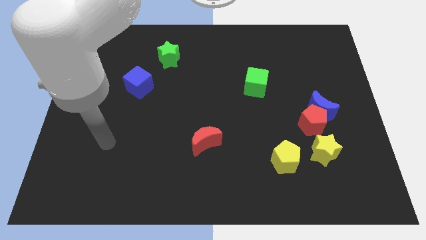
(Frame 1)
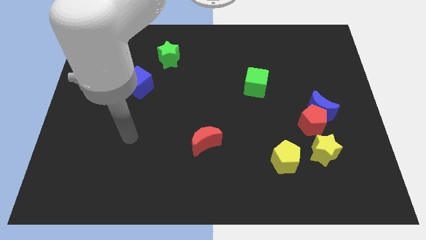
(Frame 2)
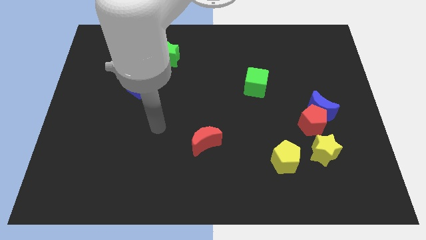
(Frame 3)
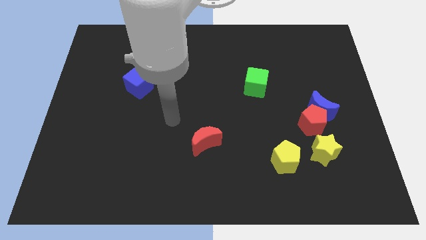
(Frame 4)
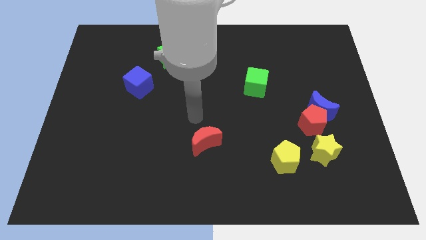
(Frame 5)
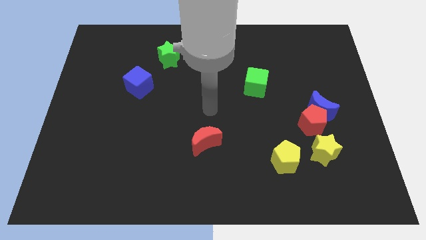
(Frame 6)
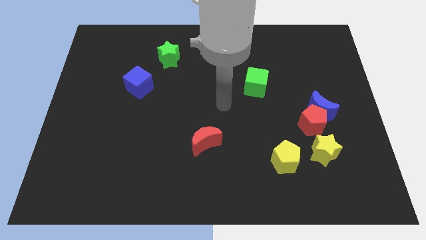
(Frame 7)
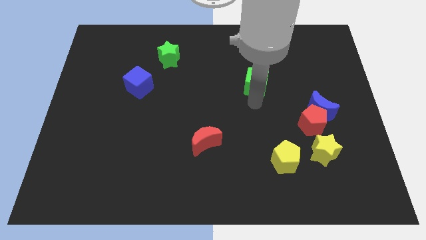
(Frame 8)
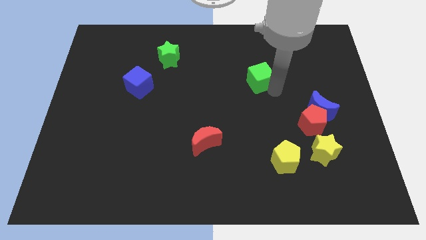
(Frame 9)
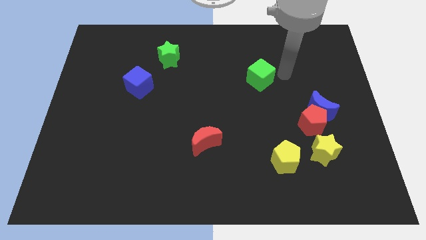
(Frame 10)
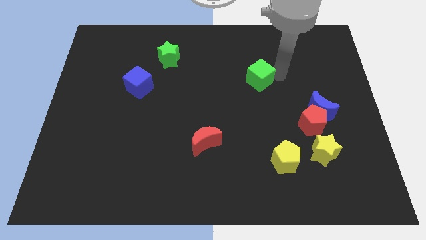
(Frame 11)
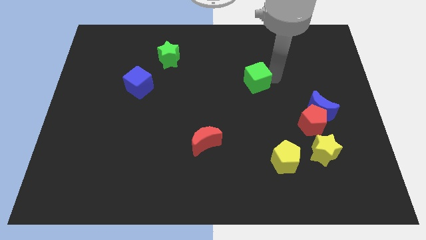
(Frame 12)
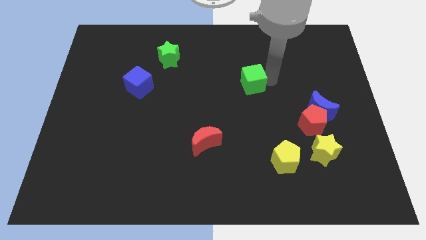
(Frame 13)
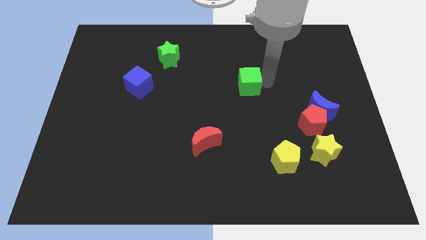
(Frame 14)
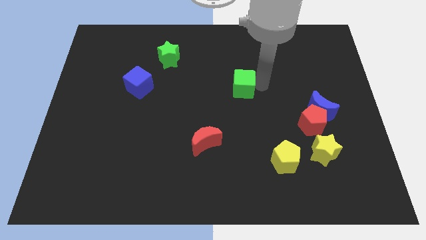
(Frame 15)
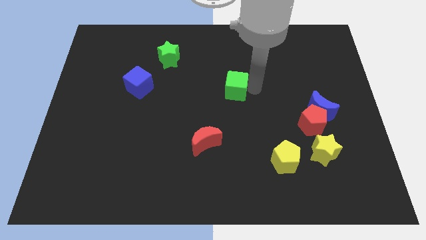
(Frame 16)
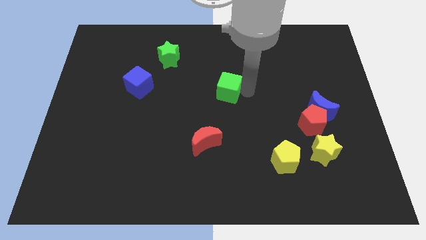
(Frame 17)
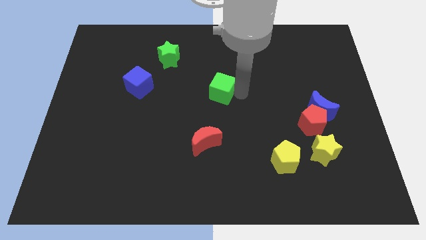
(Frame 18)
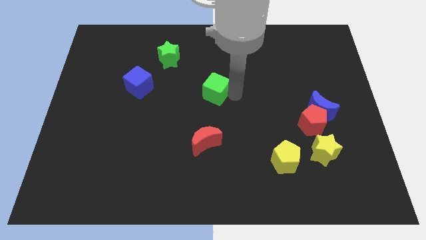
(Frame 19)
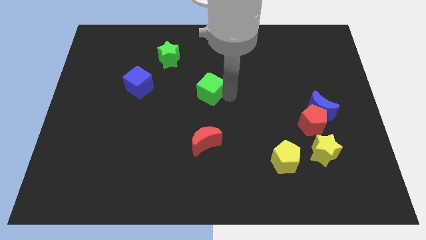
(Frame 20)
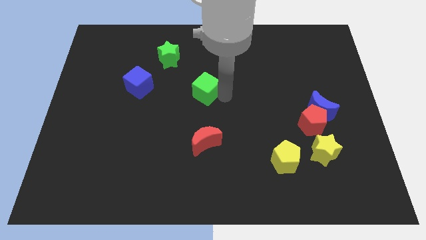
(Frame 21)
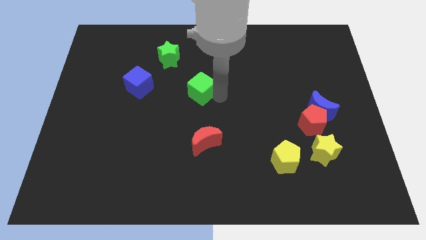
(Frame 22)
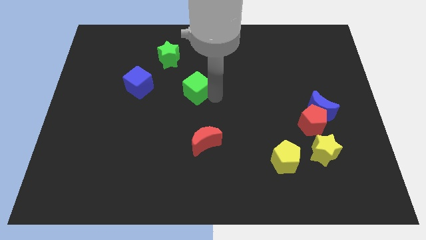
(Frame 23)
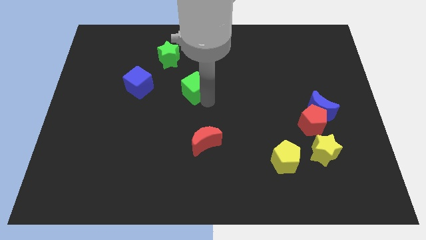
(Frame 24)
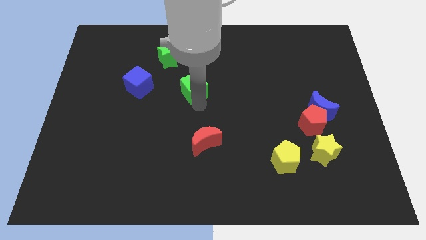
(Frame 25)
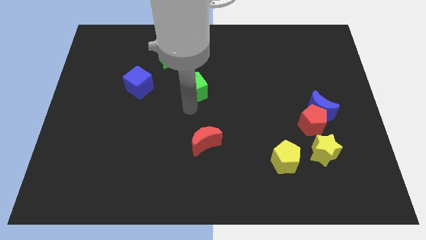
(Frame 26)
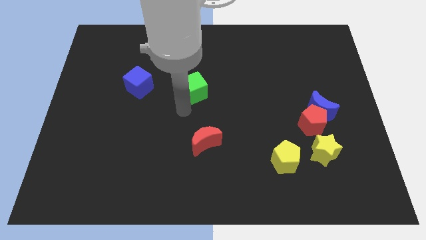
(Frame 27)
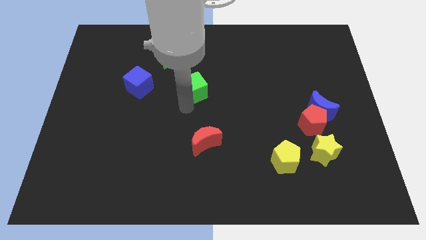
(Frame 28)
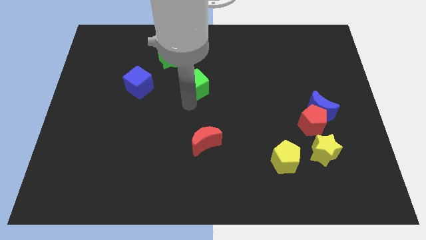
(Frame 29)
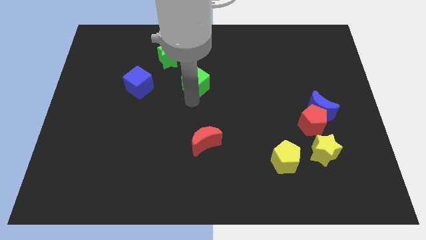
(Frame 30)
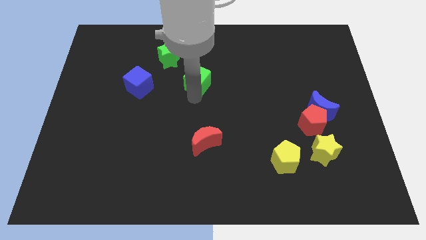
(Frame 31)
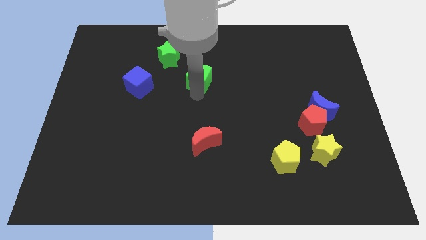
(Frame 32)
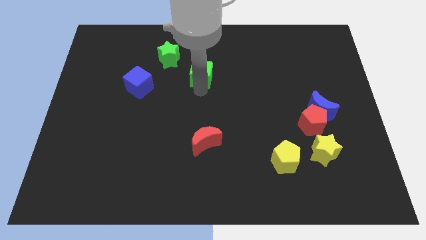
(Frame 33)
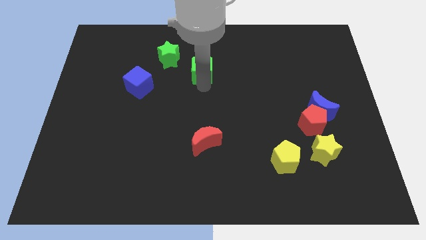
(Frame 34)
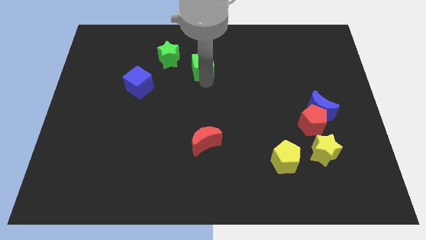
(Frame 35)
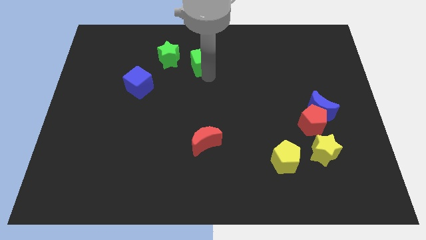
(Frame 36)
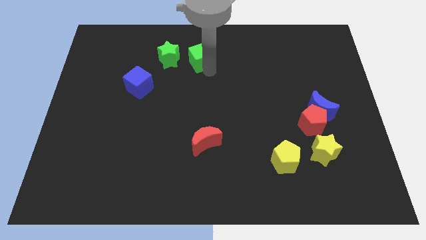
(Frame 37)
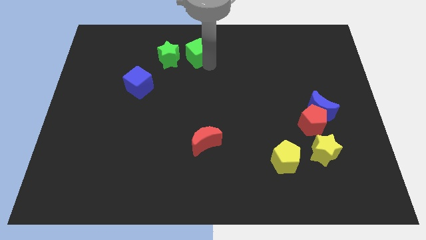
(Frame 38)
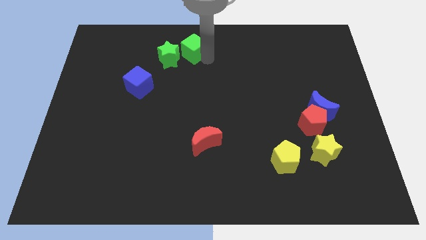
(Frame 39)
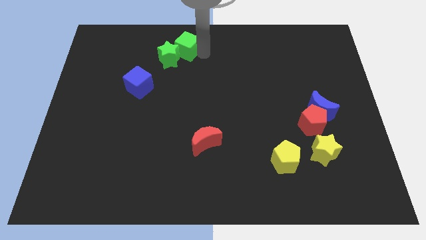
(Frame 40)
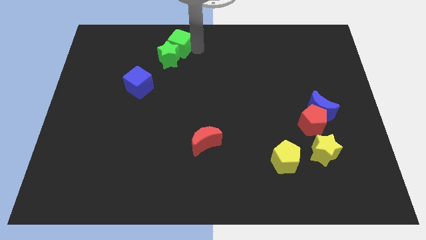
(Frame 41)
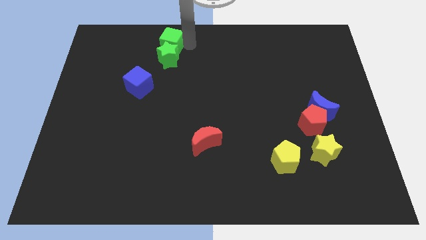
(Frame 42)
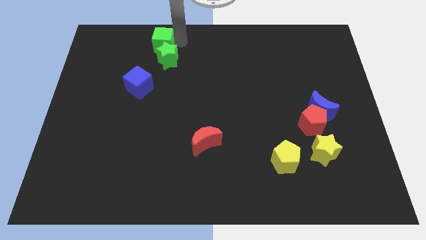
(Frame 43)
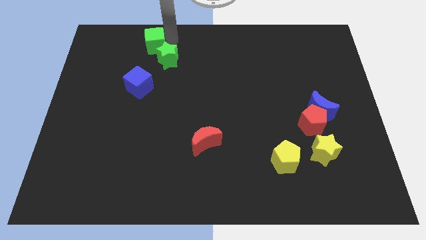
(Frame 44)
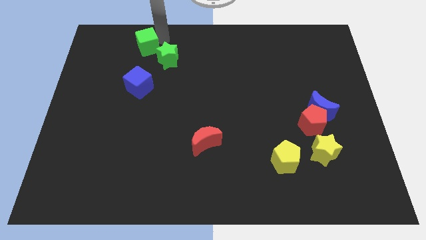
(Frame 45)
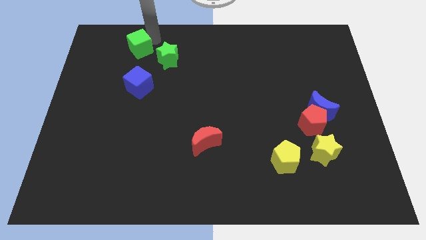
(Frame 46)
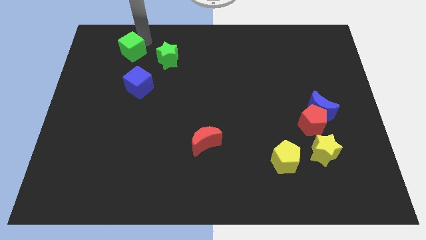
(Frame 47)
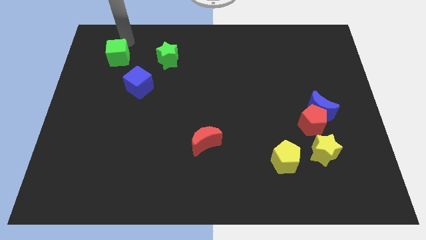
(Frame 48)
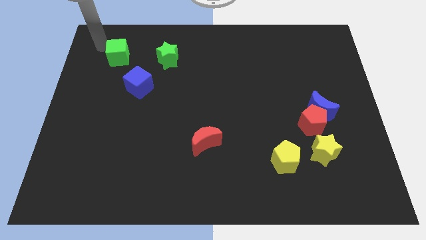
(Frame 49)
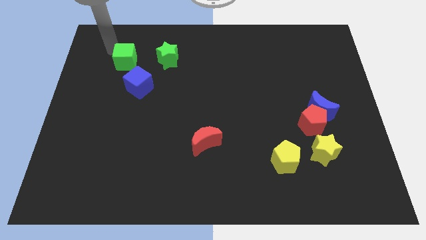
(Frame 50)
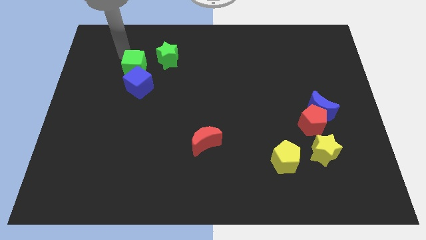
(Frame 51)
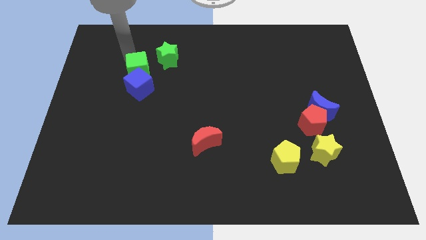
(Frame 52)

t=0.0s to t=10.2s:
slide the green cube to the blue cube

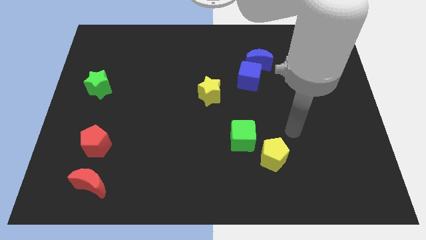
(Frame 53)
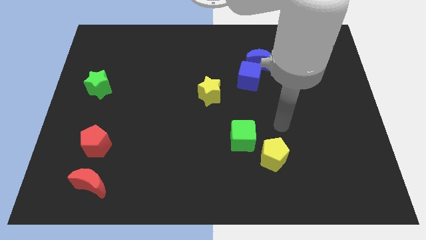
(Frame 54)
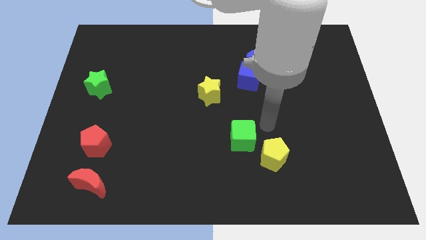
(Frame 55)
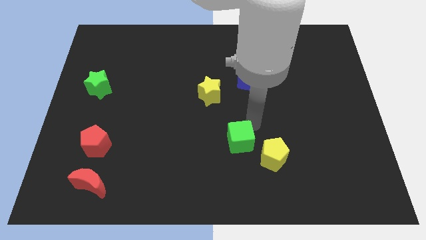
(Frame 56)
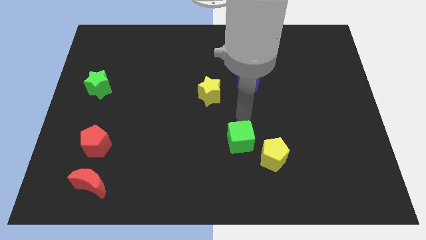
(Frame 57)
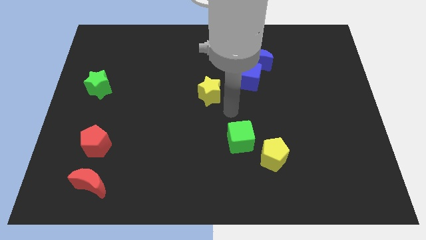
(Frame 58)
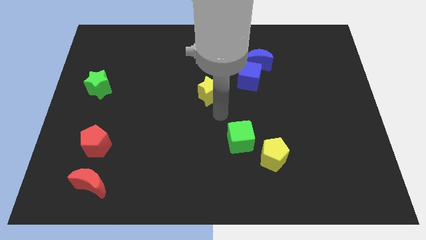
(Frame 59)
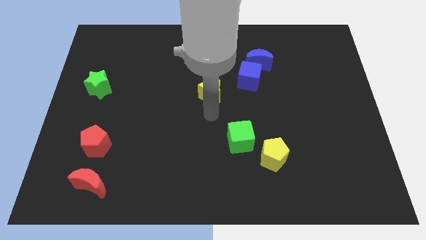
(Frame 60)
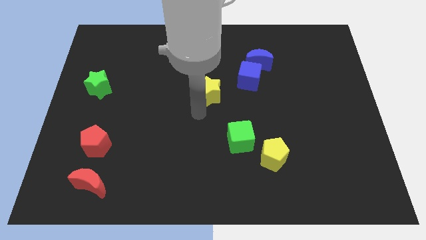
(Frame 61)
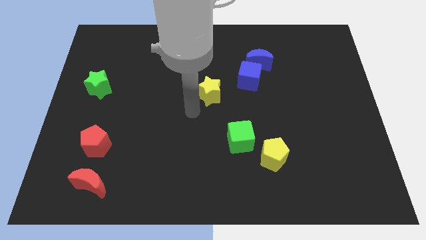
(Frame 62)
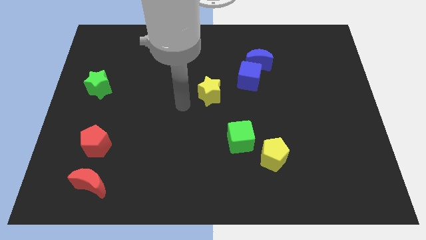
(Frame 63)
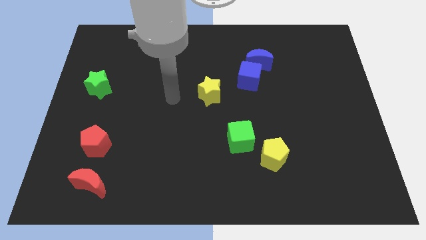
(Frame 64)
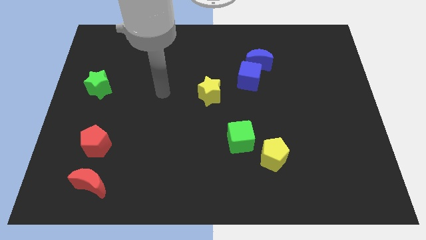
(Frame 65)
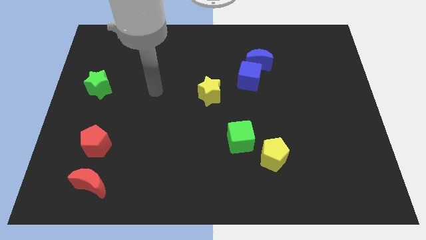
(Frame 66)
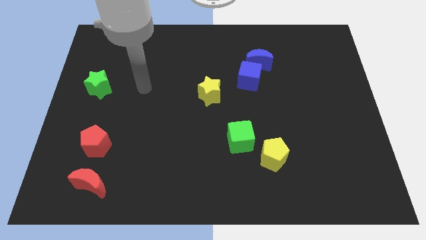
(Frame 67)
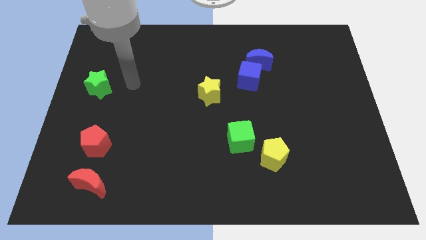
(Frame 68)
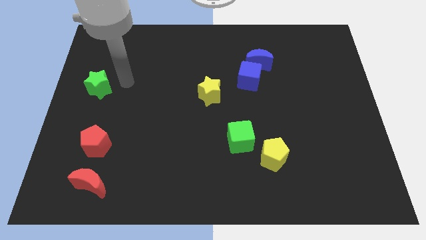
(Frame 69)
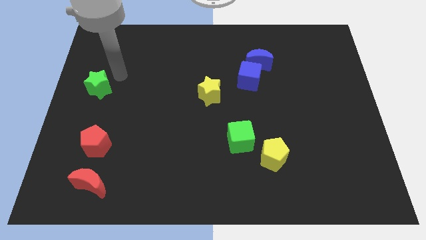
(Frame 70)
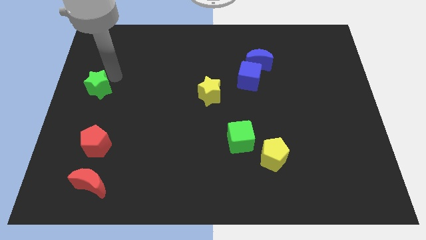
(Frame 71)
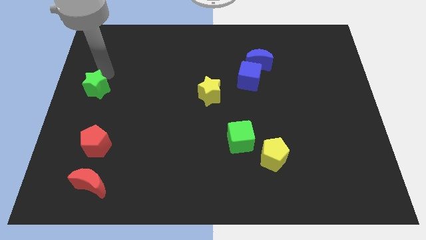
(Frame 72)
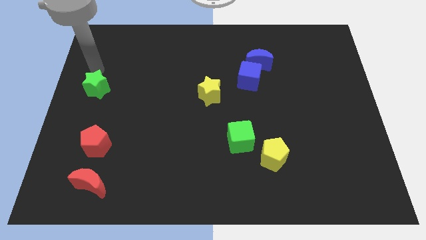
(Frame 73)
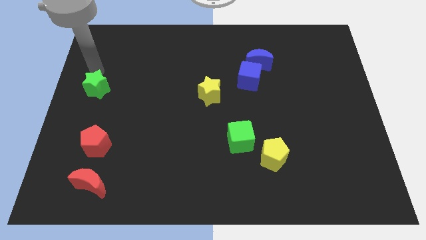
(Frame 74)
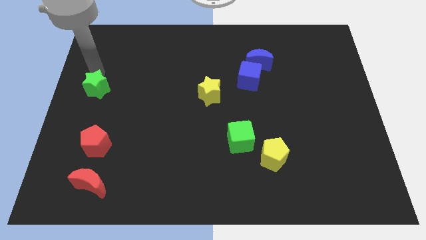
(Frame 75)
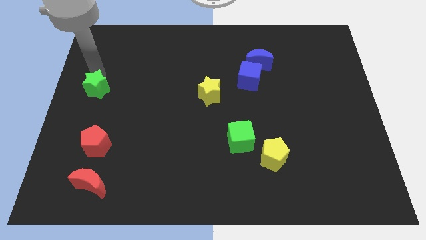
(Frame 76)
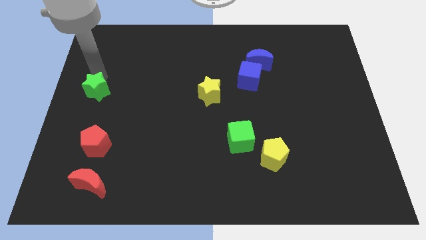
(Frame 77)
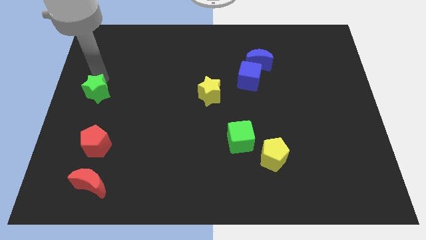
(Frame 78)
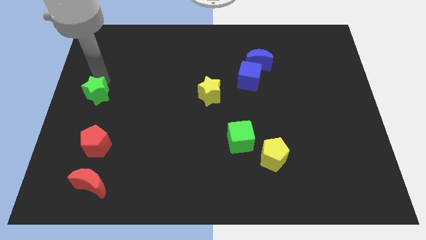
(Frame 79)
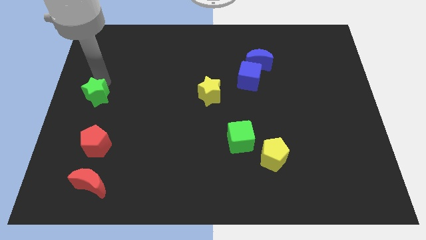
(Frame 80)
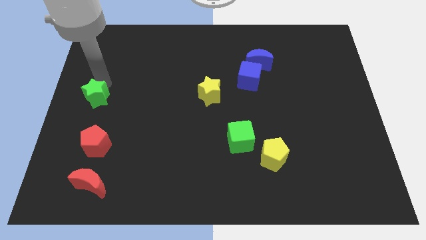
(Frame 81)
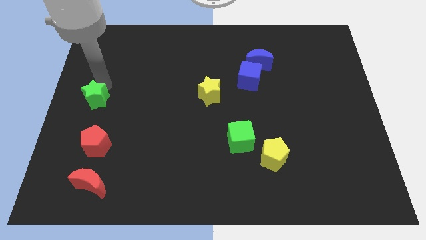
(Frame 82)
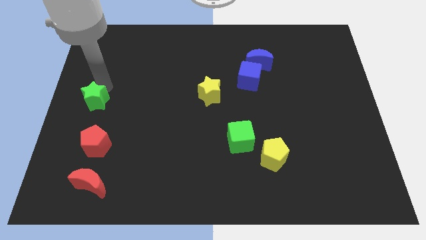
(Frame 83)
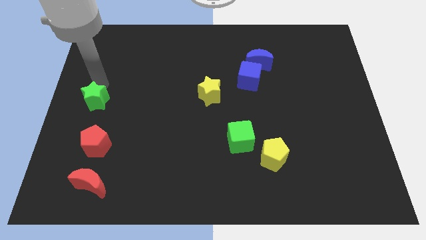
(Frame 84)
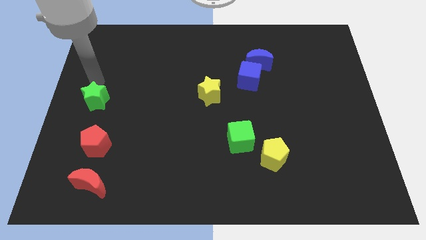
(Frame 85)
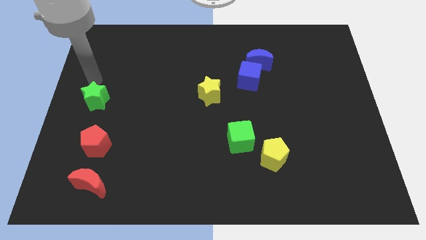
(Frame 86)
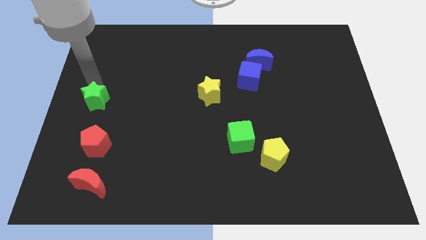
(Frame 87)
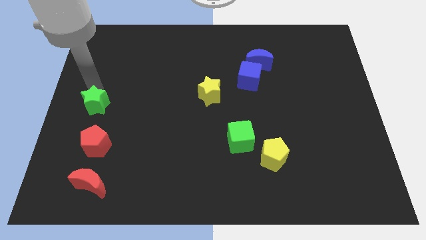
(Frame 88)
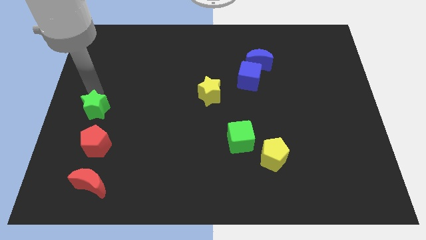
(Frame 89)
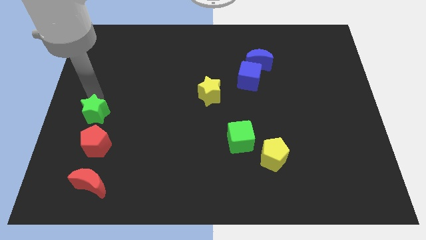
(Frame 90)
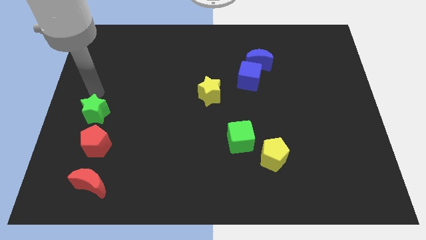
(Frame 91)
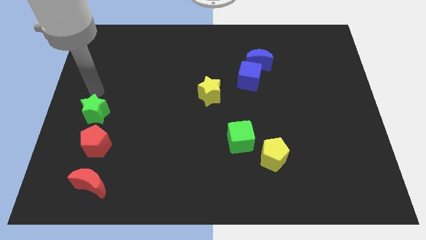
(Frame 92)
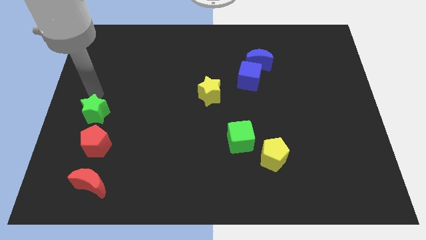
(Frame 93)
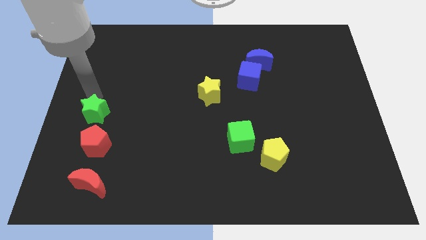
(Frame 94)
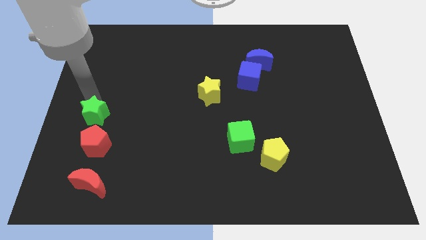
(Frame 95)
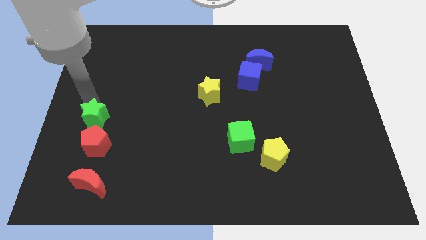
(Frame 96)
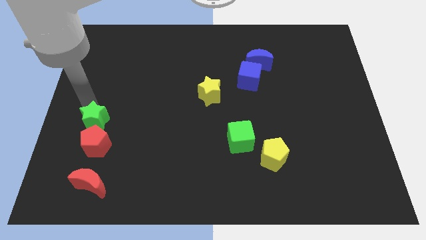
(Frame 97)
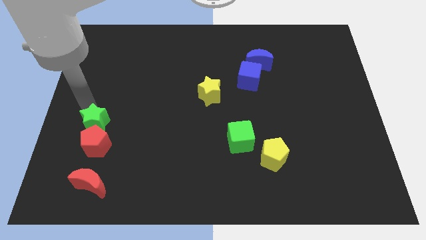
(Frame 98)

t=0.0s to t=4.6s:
move the green star to the red pentagon
